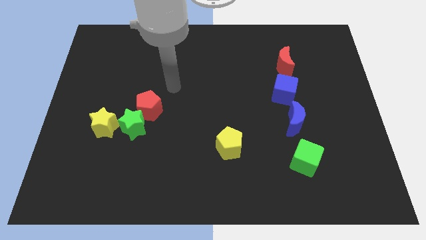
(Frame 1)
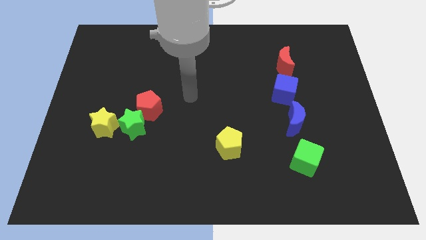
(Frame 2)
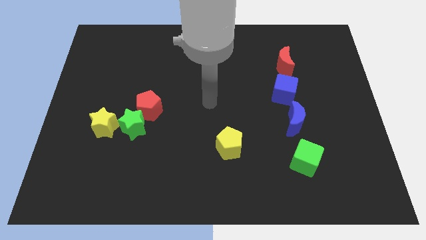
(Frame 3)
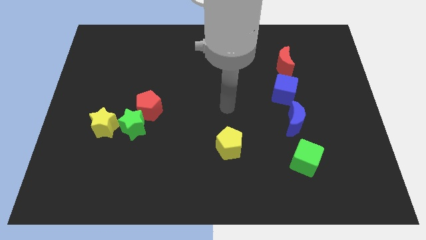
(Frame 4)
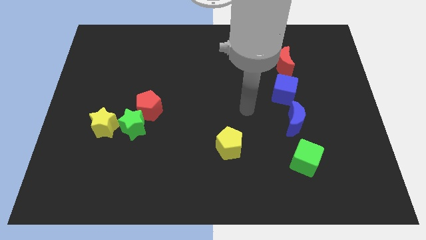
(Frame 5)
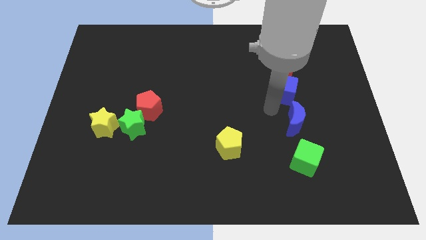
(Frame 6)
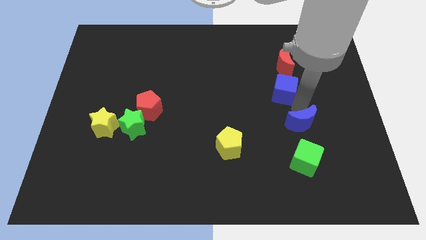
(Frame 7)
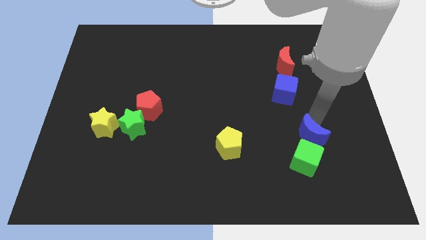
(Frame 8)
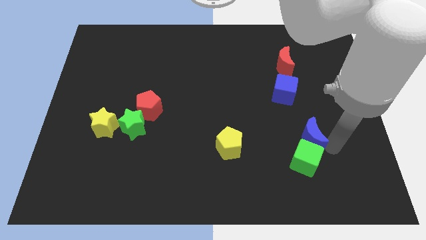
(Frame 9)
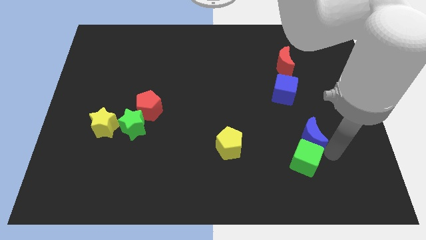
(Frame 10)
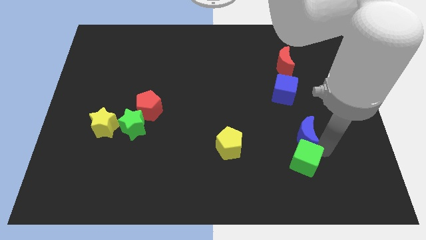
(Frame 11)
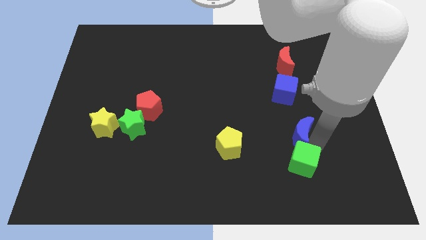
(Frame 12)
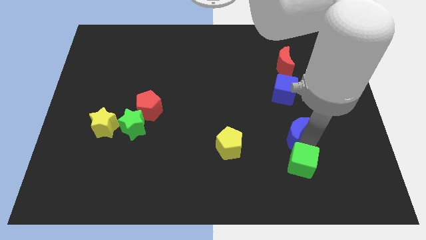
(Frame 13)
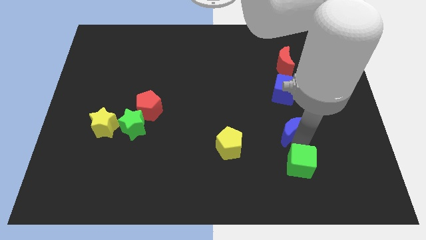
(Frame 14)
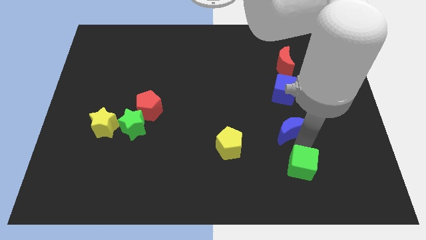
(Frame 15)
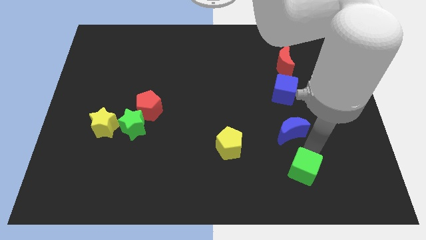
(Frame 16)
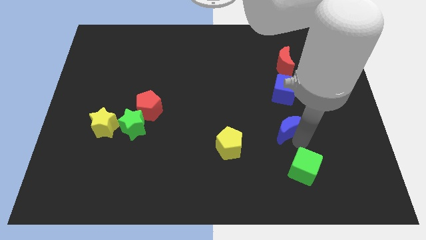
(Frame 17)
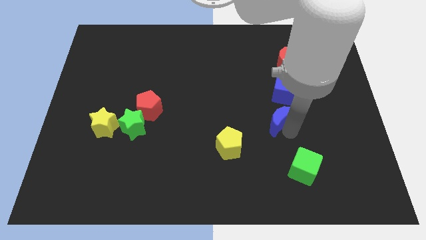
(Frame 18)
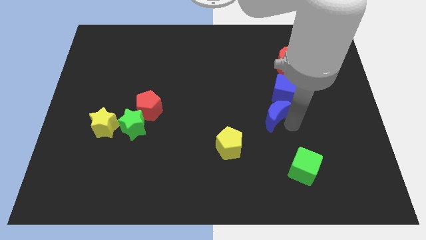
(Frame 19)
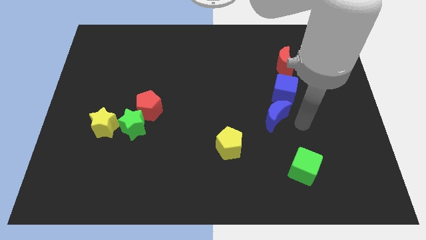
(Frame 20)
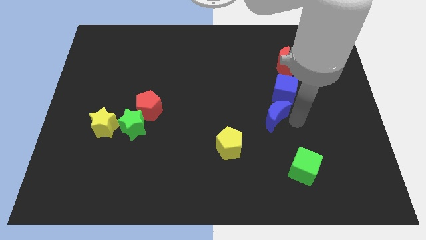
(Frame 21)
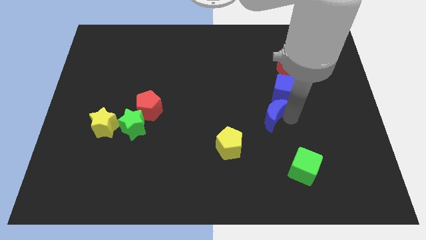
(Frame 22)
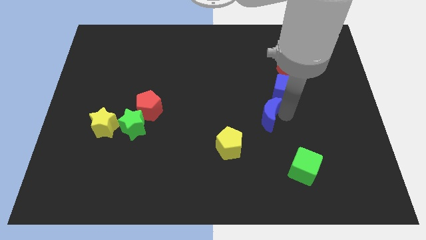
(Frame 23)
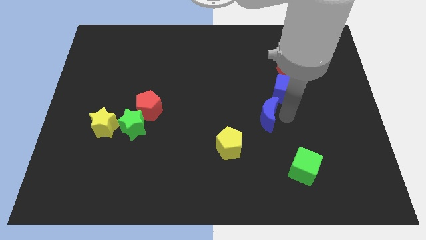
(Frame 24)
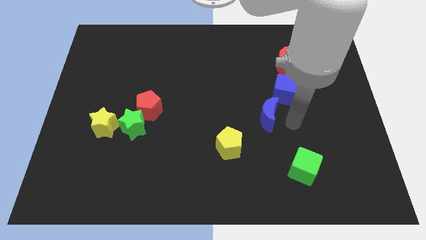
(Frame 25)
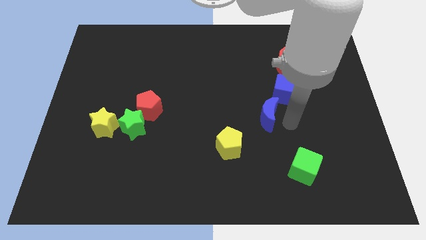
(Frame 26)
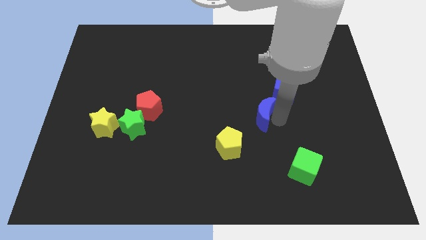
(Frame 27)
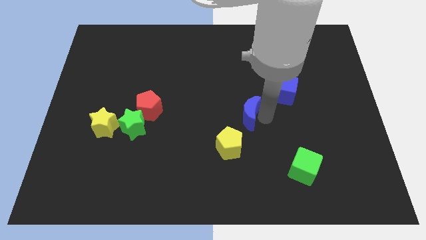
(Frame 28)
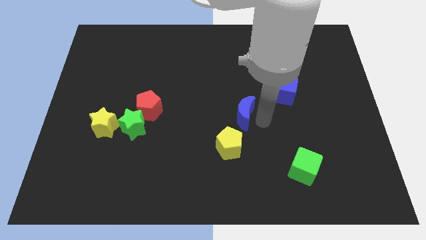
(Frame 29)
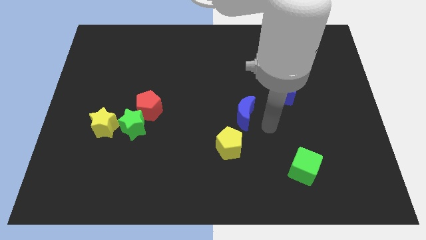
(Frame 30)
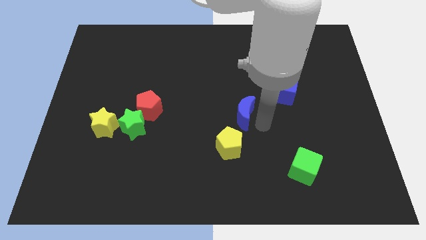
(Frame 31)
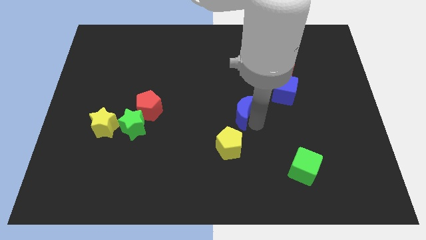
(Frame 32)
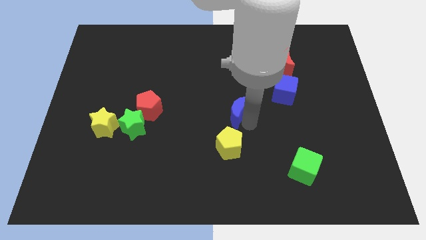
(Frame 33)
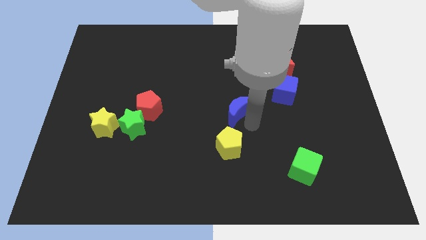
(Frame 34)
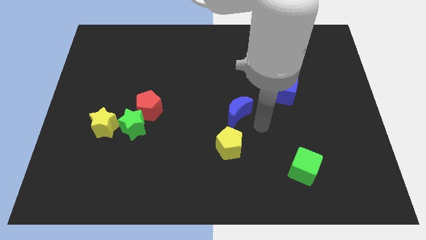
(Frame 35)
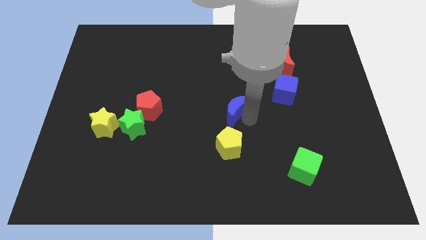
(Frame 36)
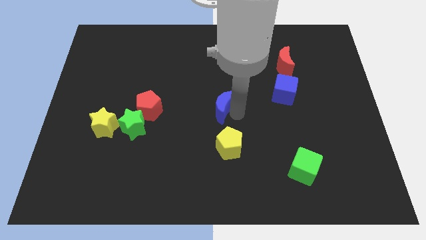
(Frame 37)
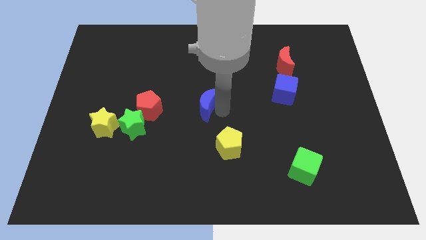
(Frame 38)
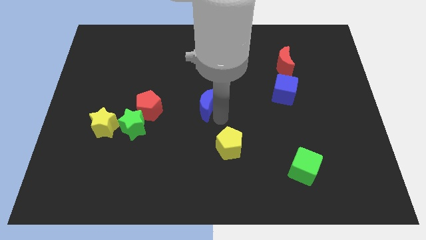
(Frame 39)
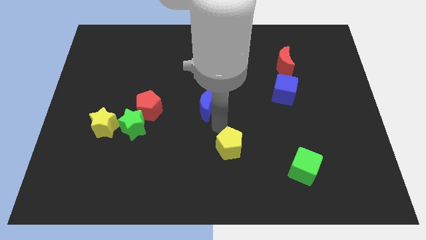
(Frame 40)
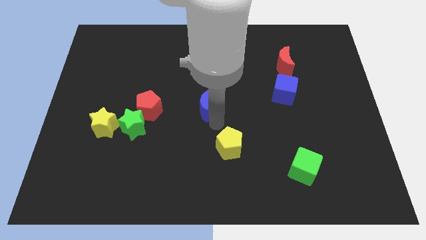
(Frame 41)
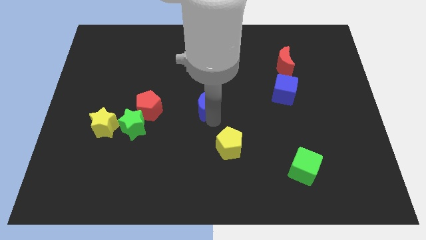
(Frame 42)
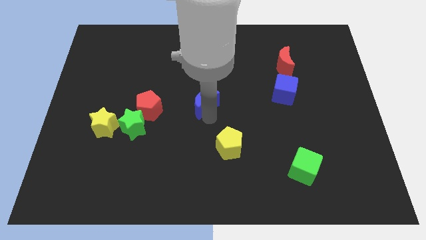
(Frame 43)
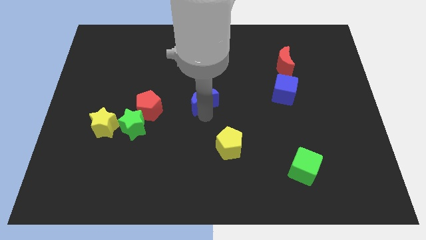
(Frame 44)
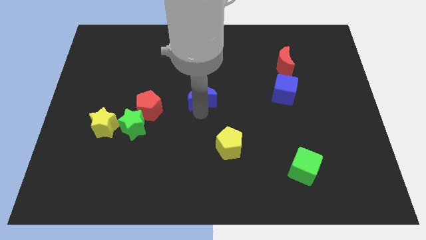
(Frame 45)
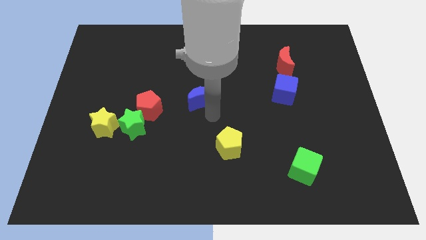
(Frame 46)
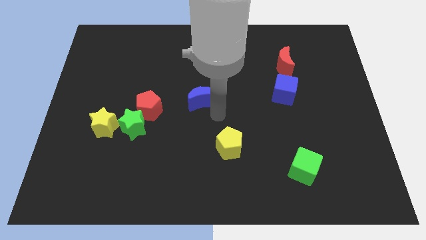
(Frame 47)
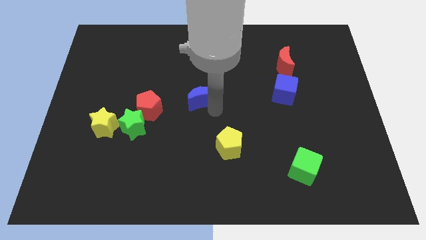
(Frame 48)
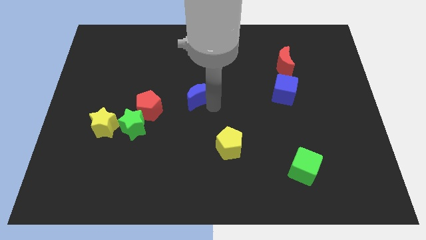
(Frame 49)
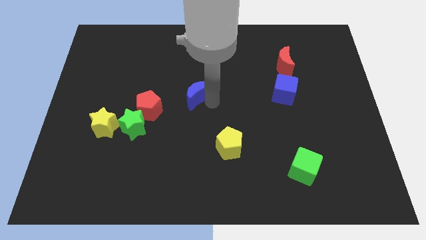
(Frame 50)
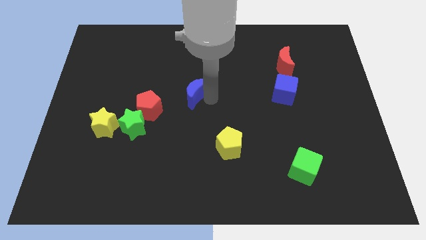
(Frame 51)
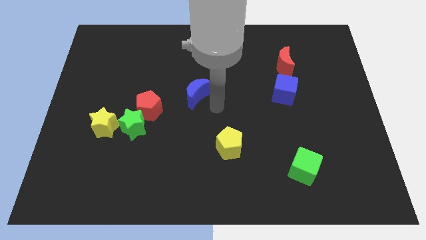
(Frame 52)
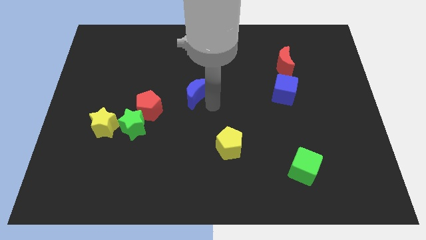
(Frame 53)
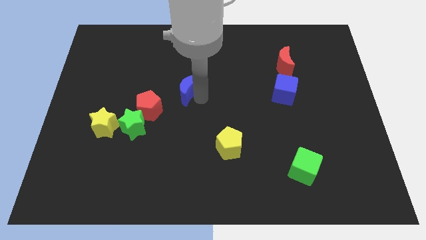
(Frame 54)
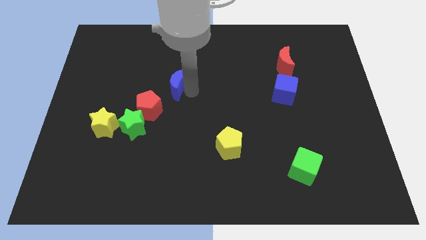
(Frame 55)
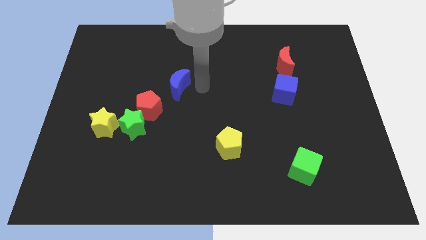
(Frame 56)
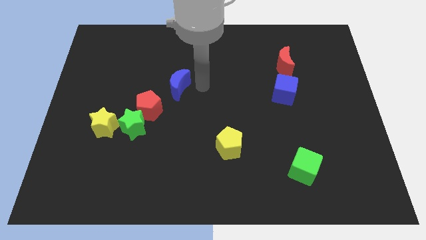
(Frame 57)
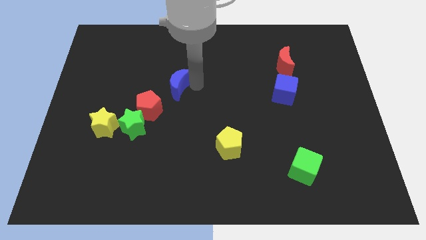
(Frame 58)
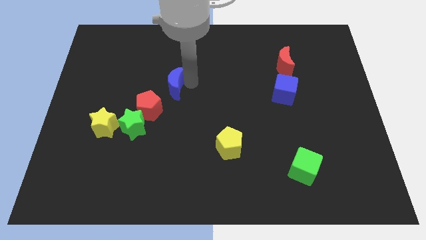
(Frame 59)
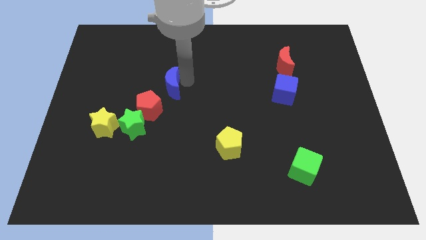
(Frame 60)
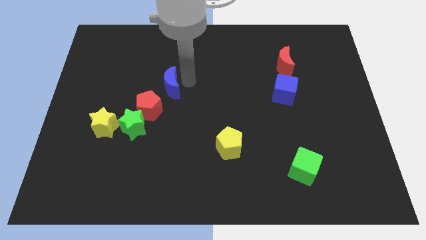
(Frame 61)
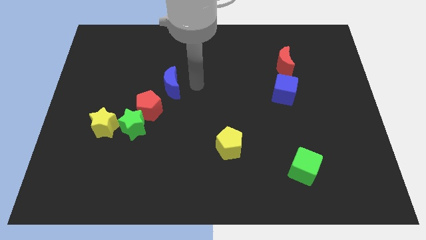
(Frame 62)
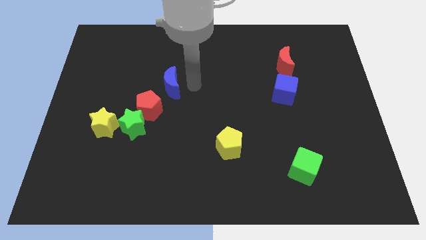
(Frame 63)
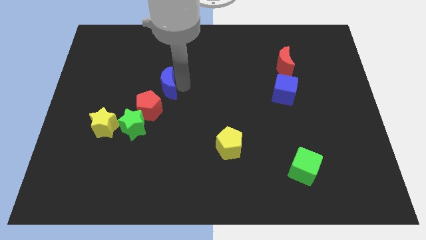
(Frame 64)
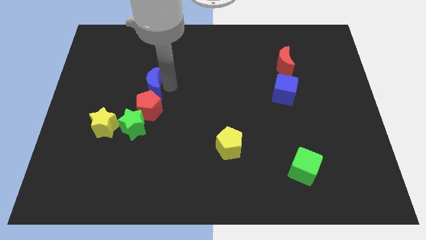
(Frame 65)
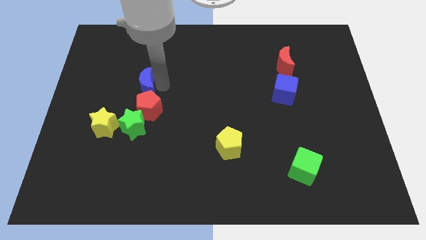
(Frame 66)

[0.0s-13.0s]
put the blue moon diagonally up and to the left of the red pentagon
